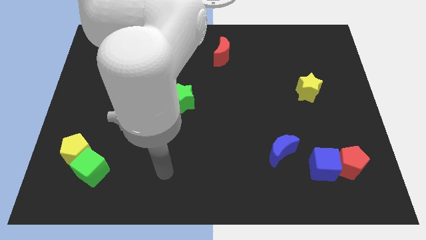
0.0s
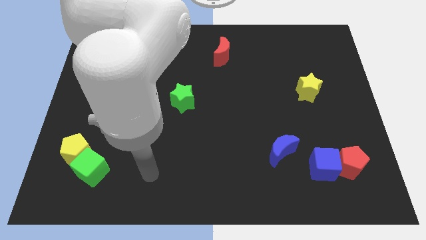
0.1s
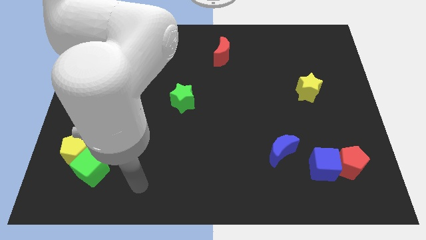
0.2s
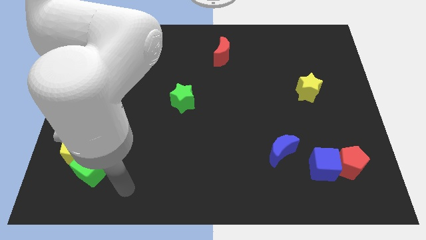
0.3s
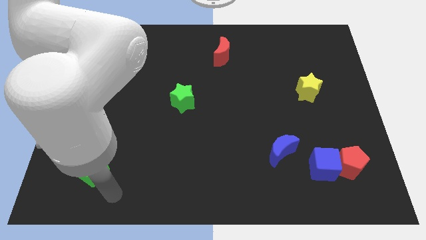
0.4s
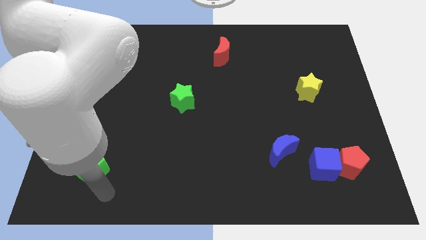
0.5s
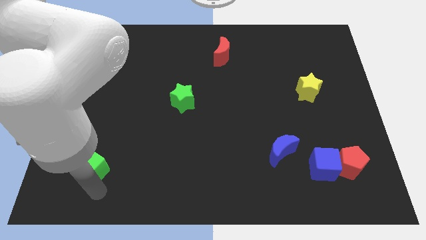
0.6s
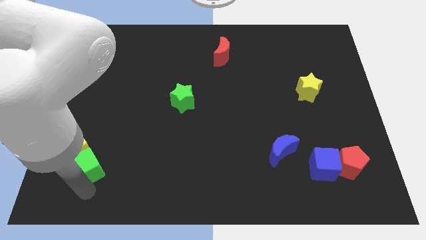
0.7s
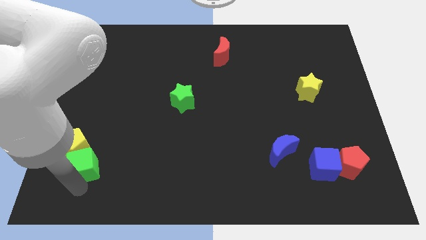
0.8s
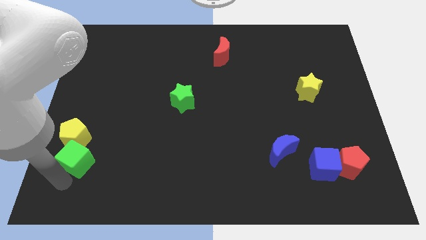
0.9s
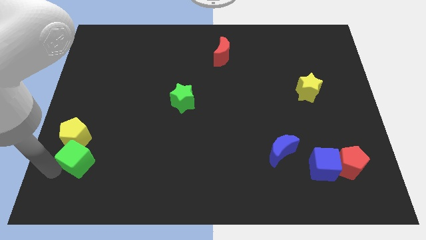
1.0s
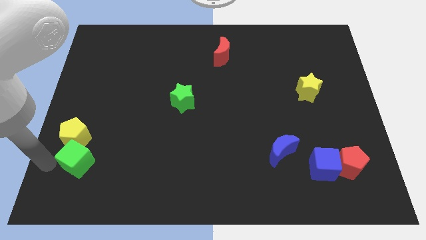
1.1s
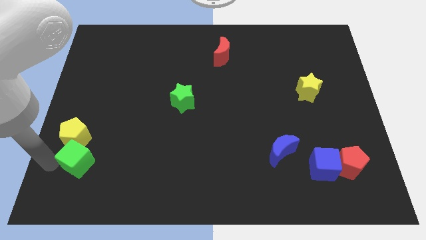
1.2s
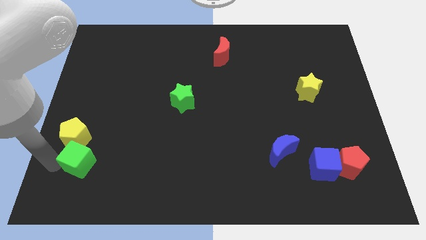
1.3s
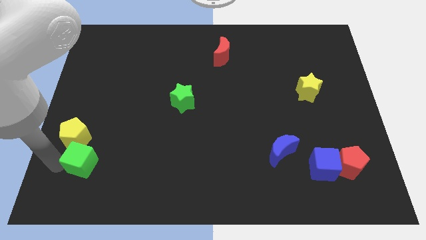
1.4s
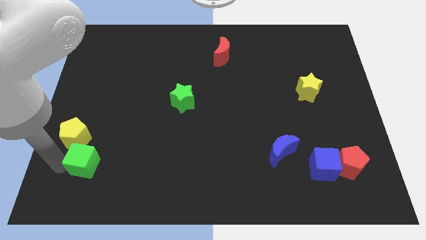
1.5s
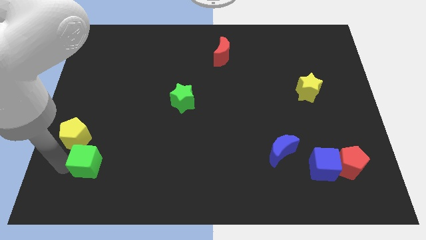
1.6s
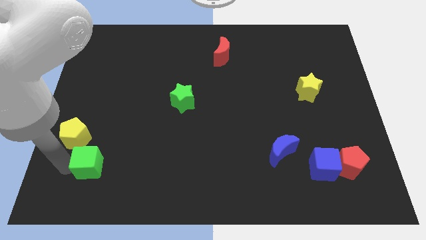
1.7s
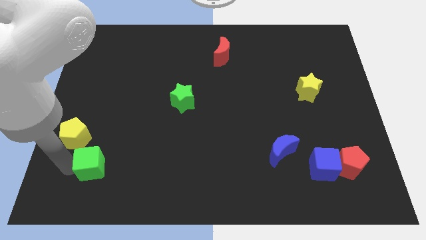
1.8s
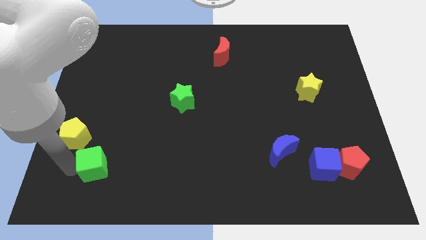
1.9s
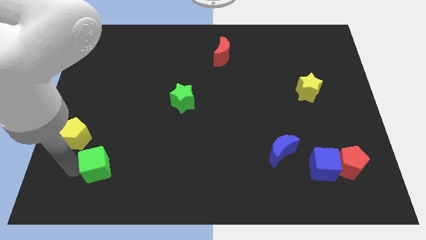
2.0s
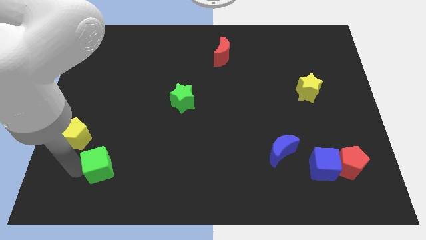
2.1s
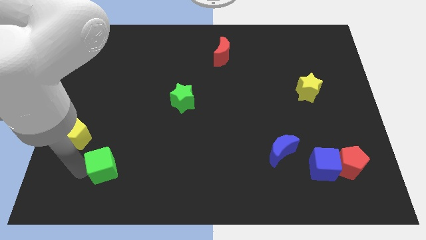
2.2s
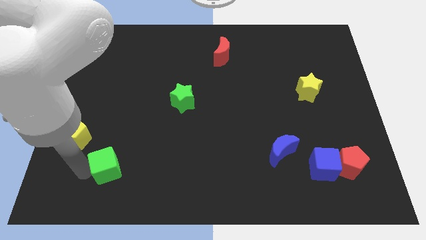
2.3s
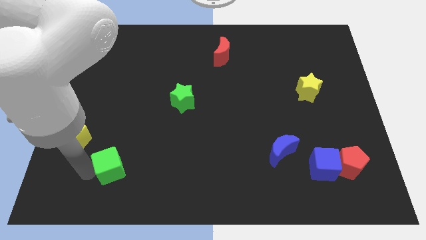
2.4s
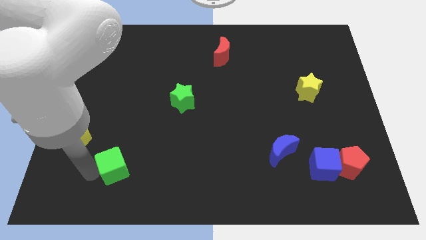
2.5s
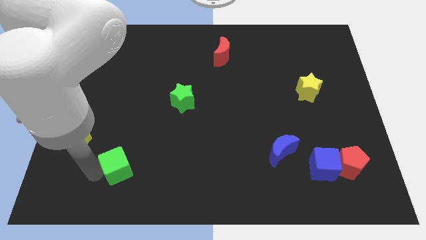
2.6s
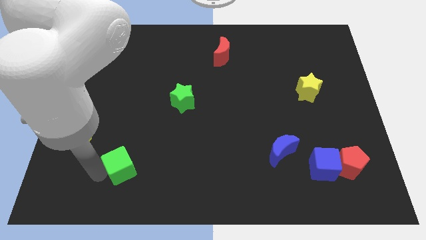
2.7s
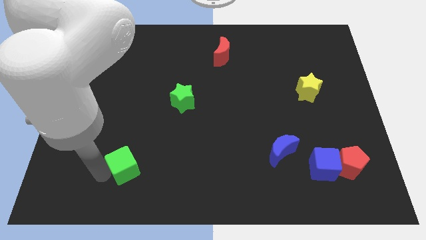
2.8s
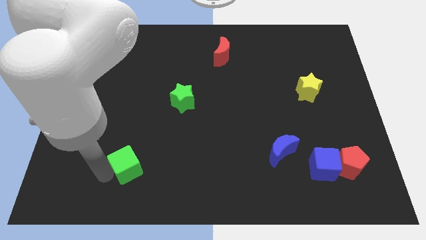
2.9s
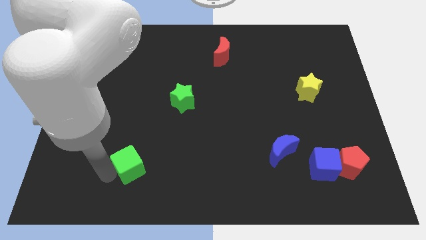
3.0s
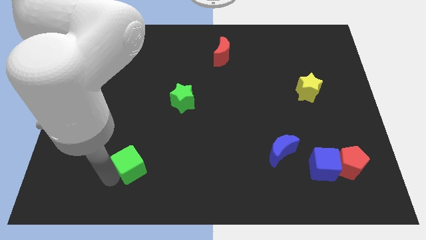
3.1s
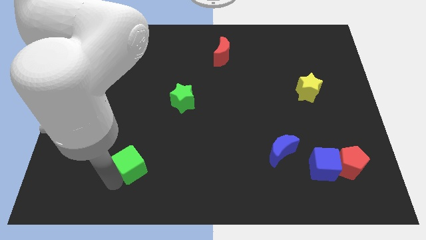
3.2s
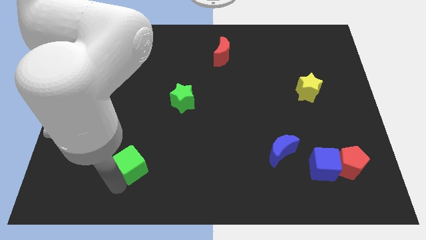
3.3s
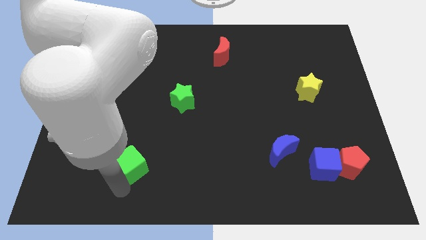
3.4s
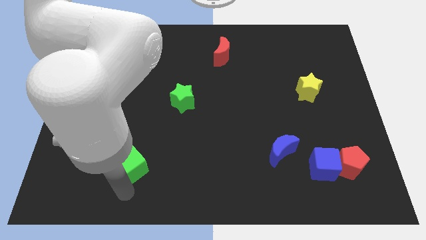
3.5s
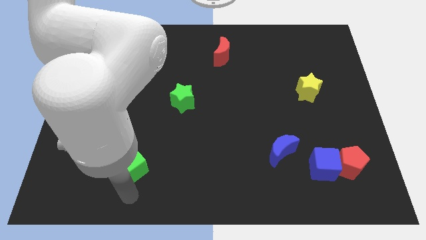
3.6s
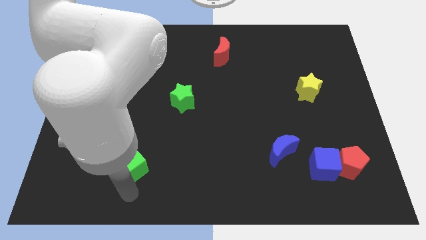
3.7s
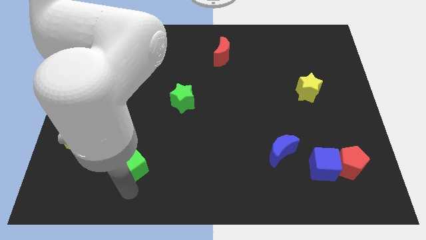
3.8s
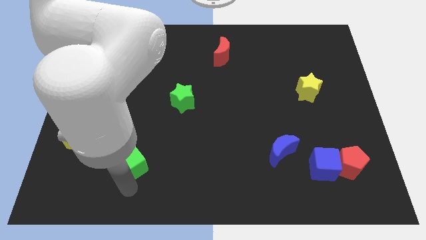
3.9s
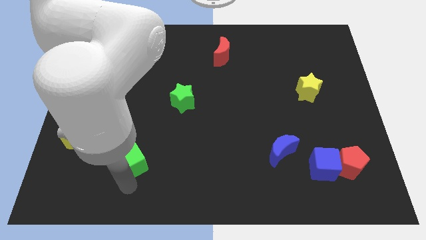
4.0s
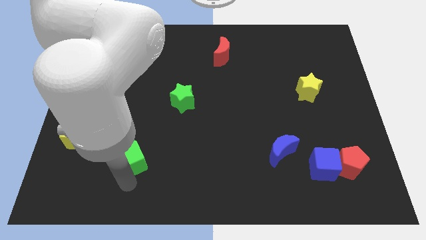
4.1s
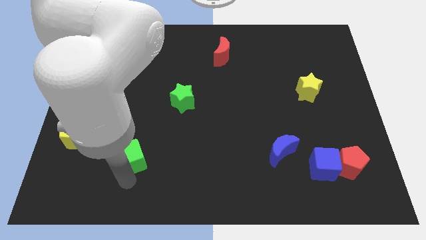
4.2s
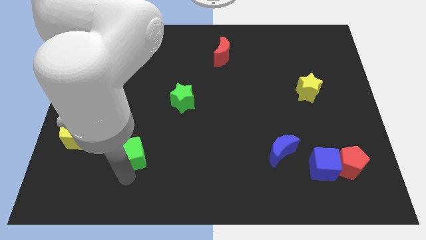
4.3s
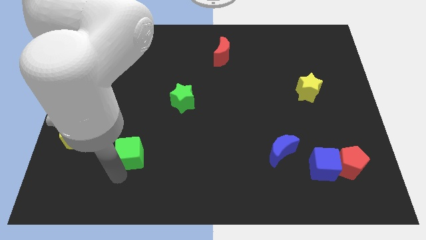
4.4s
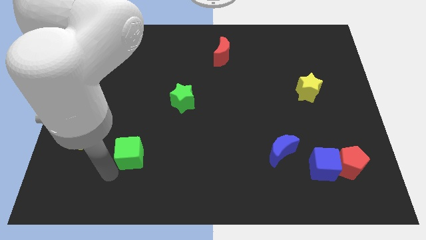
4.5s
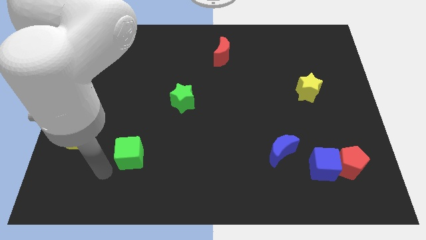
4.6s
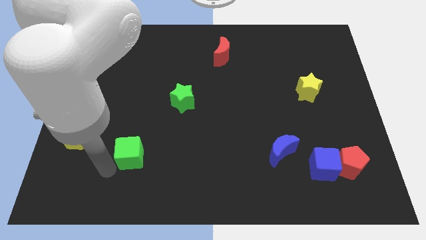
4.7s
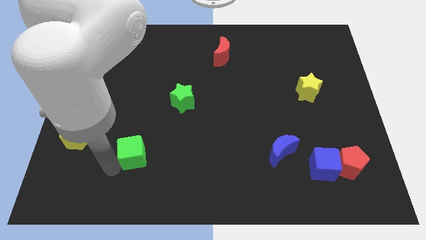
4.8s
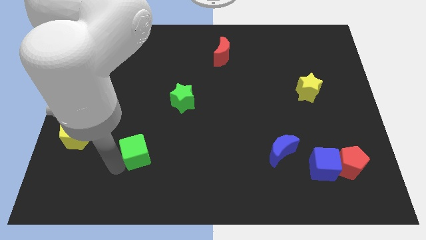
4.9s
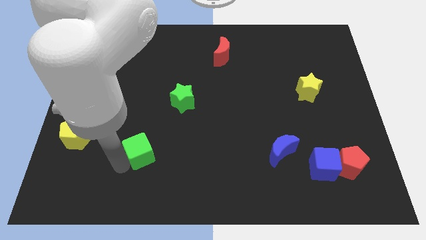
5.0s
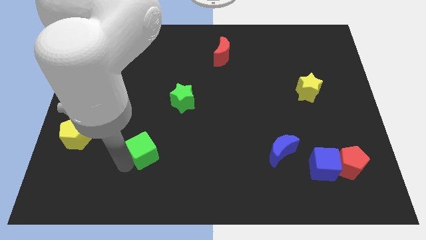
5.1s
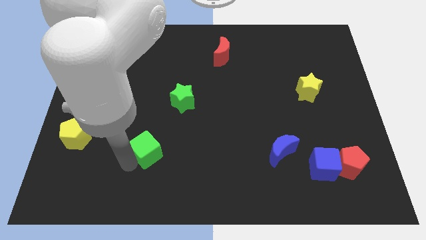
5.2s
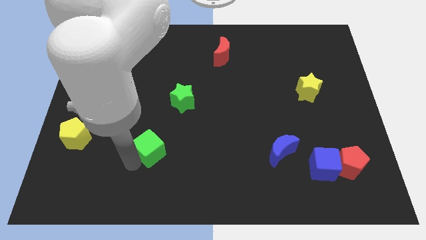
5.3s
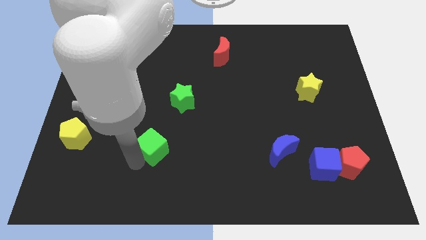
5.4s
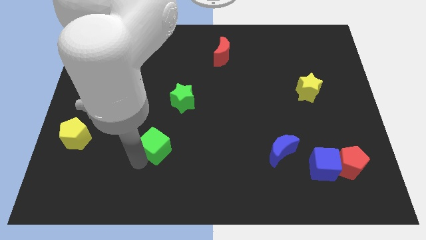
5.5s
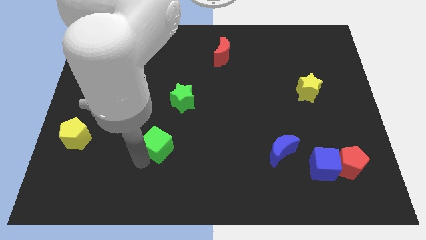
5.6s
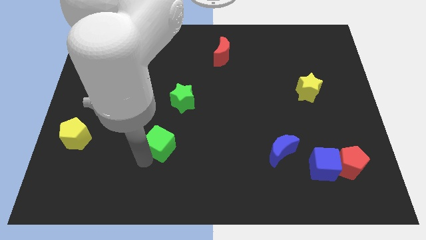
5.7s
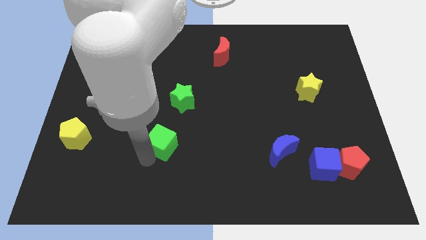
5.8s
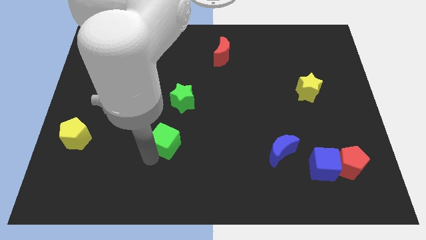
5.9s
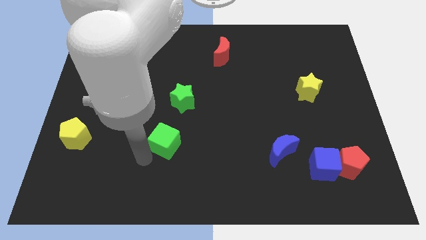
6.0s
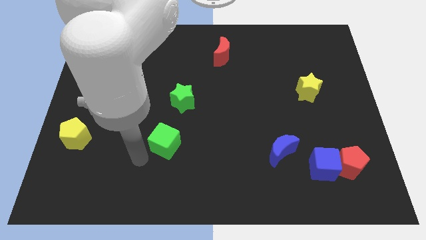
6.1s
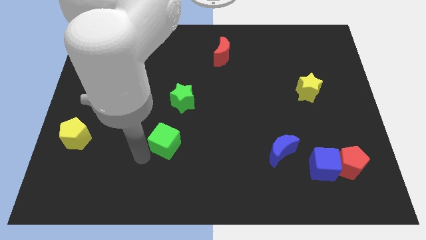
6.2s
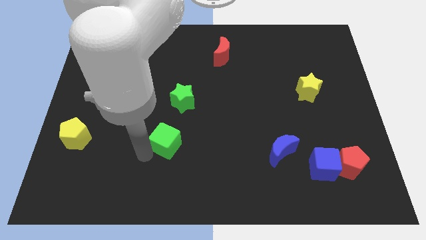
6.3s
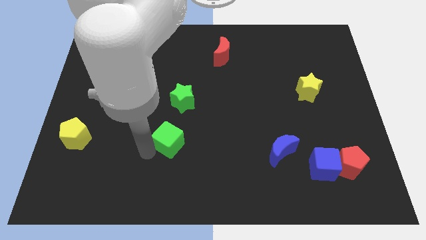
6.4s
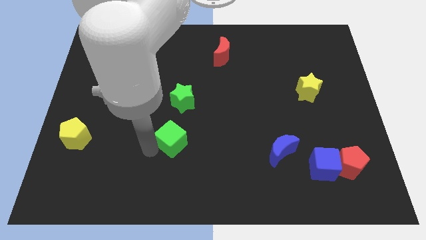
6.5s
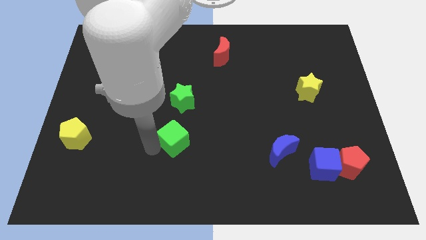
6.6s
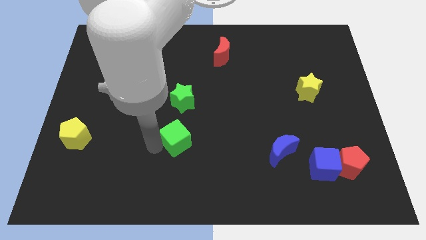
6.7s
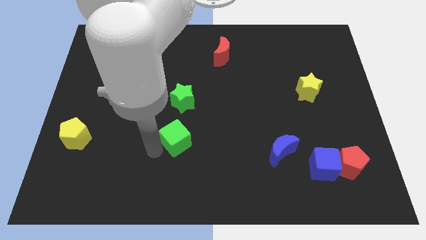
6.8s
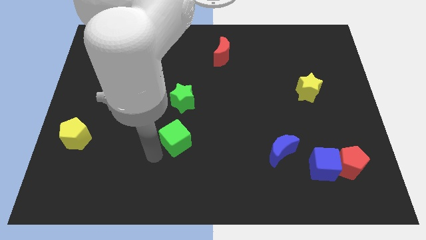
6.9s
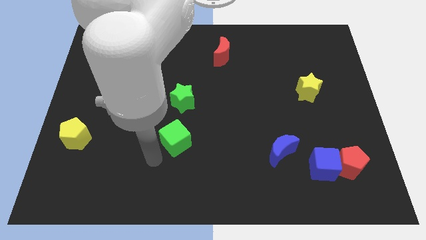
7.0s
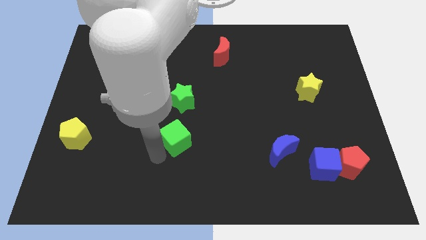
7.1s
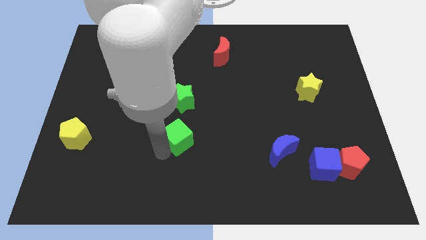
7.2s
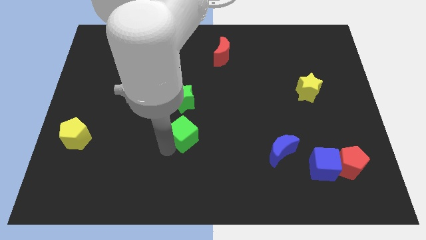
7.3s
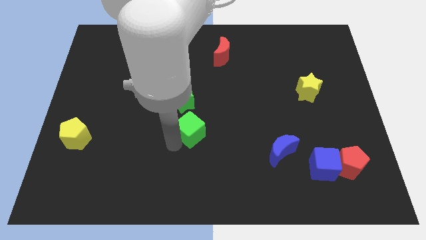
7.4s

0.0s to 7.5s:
move the green cube to the bottom right side of the green star

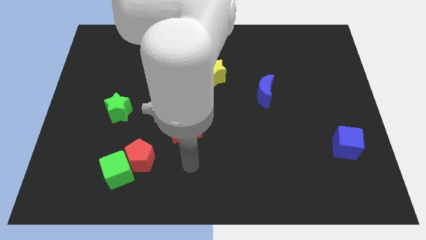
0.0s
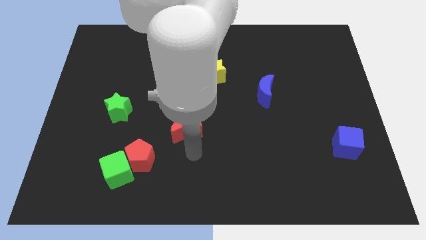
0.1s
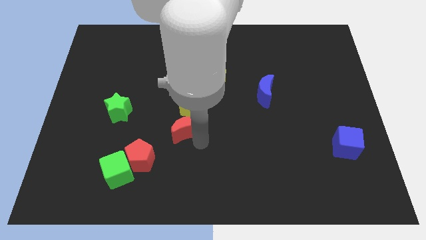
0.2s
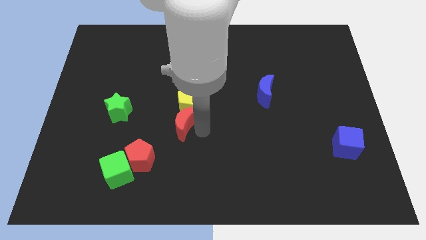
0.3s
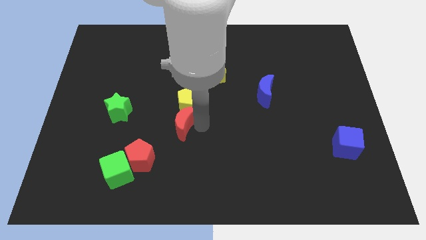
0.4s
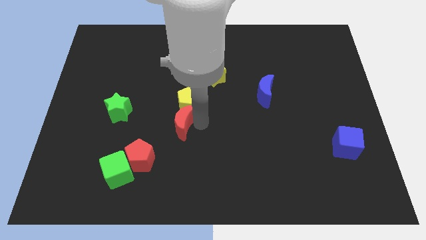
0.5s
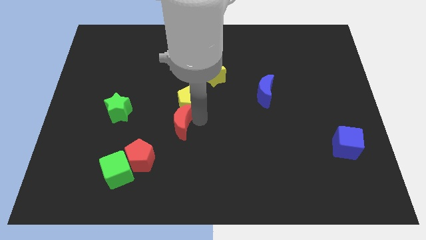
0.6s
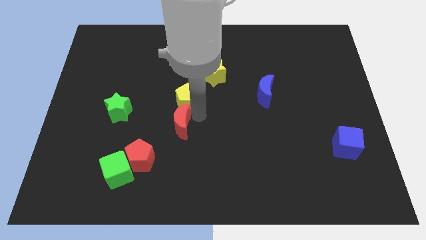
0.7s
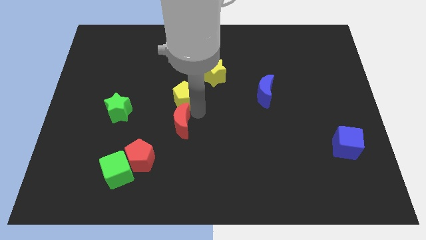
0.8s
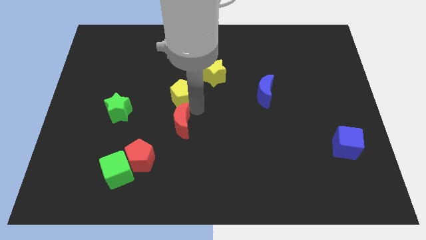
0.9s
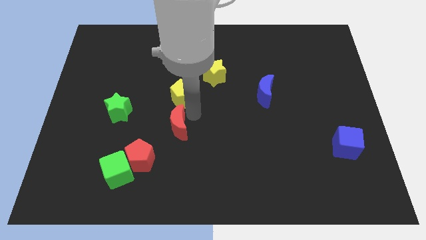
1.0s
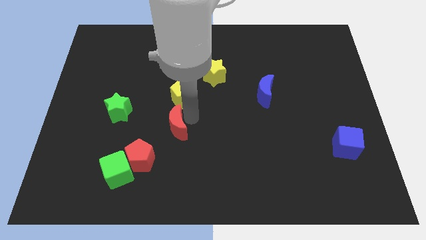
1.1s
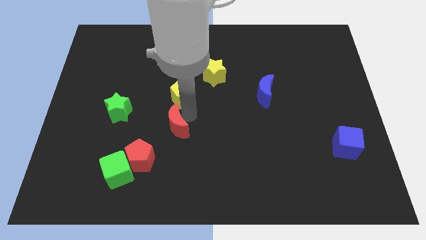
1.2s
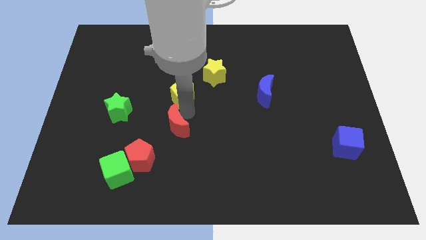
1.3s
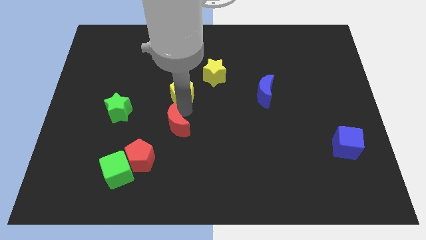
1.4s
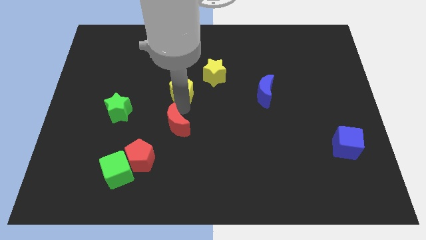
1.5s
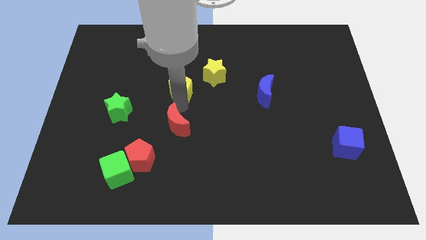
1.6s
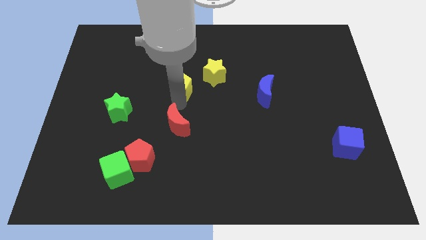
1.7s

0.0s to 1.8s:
put the yellow pentagon left of the yellow star
